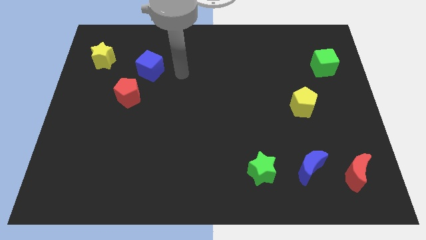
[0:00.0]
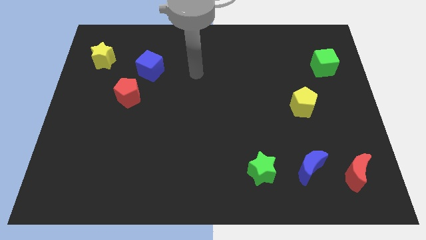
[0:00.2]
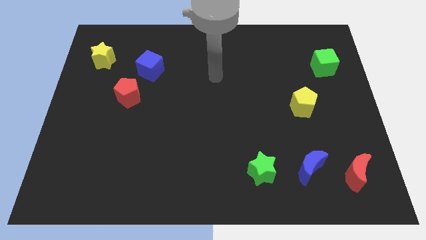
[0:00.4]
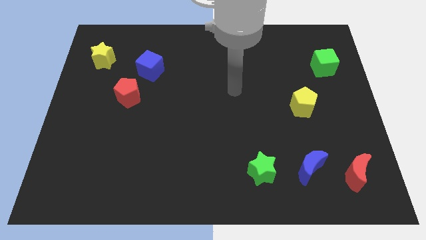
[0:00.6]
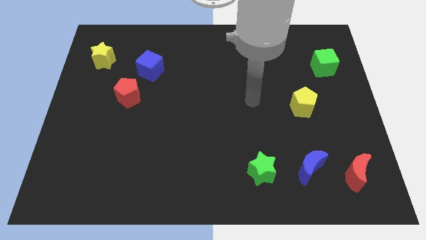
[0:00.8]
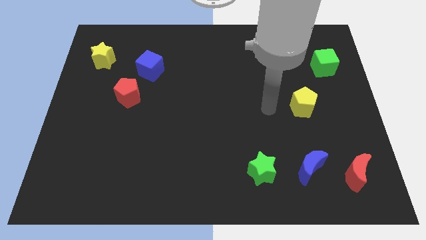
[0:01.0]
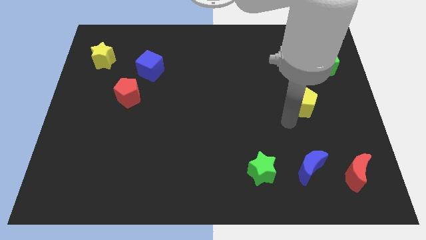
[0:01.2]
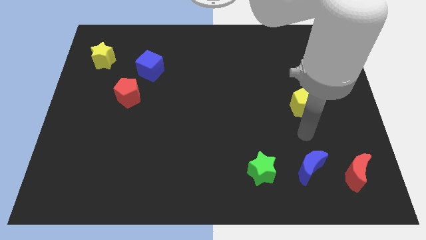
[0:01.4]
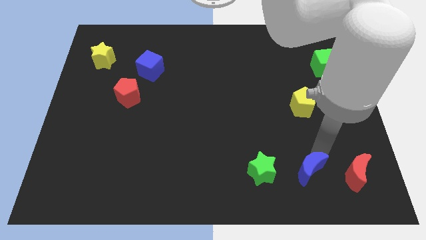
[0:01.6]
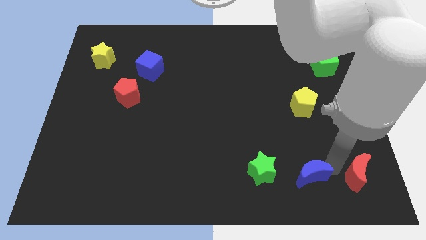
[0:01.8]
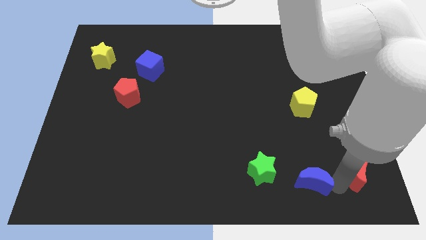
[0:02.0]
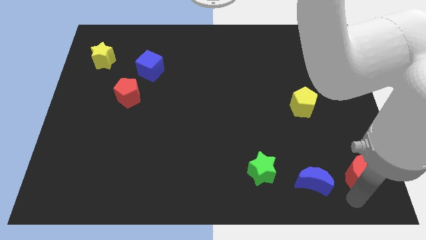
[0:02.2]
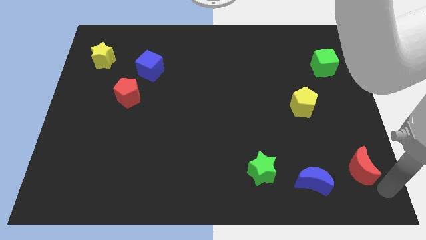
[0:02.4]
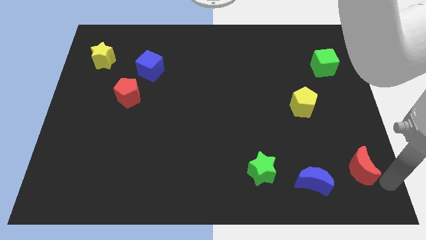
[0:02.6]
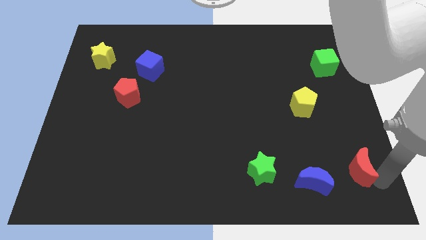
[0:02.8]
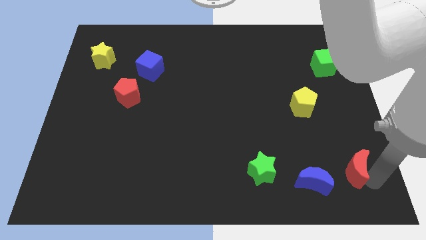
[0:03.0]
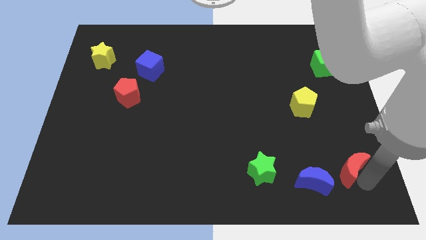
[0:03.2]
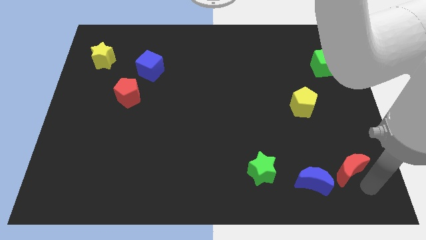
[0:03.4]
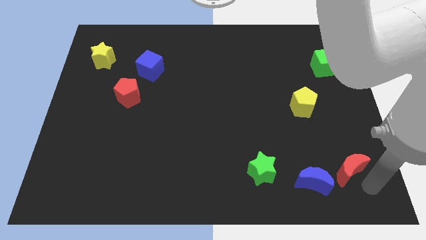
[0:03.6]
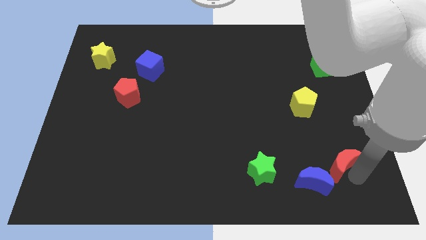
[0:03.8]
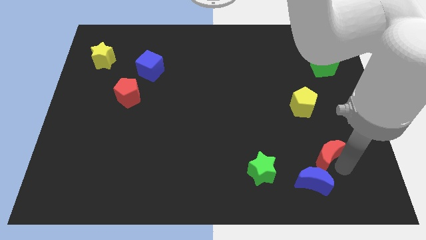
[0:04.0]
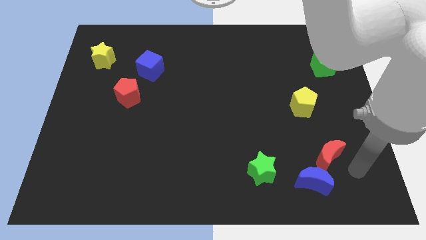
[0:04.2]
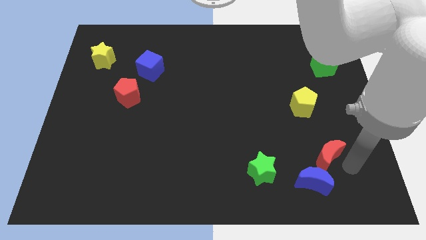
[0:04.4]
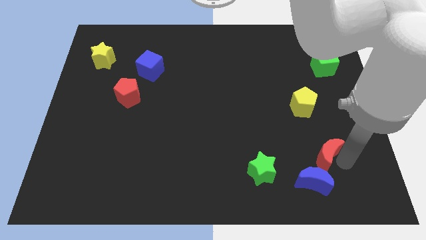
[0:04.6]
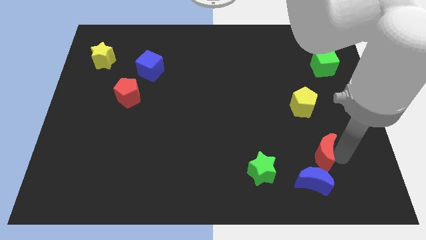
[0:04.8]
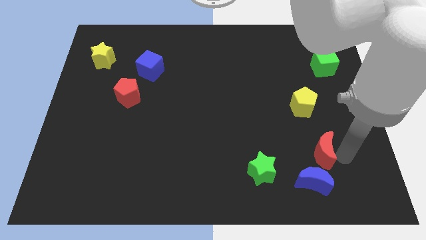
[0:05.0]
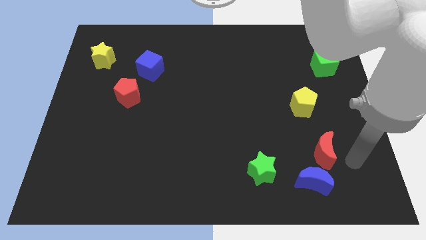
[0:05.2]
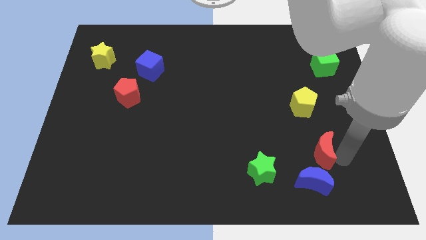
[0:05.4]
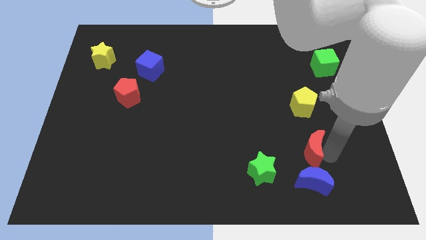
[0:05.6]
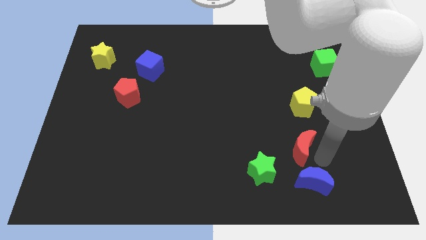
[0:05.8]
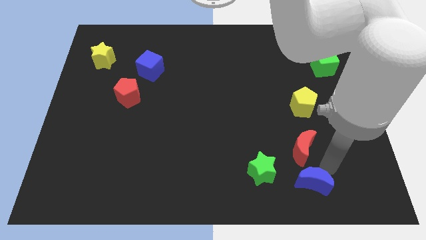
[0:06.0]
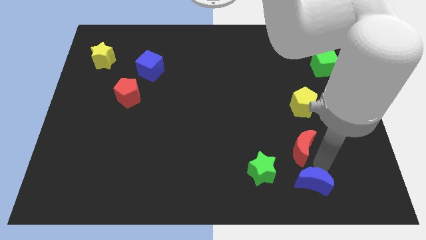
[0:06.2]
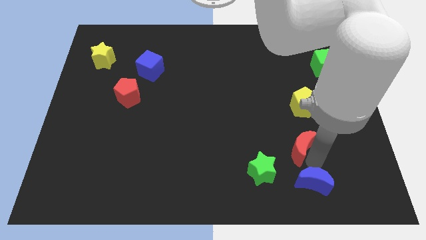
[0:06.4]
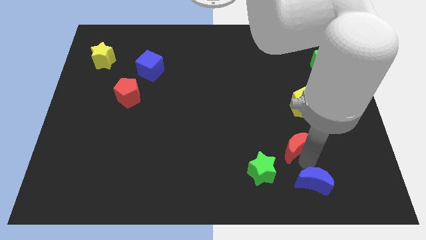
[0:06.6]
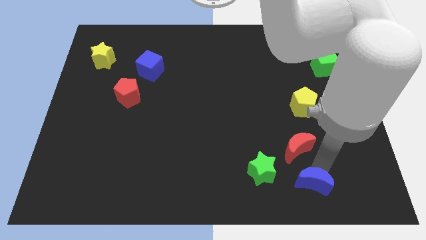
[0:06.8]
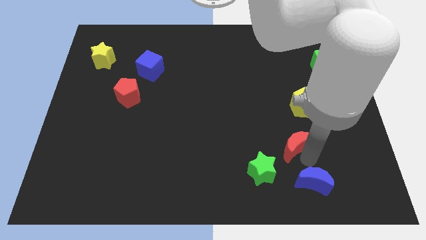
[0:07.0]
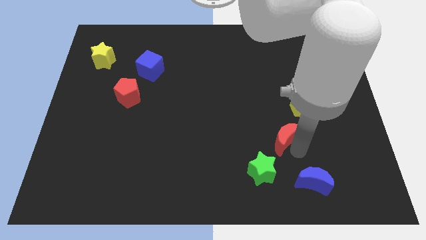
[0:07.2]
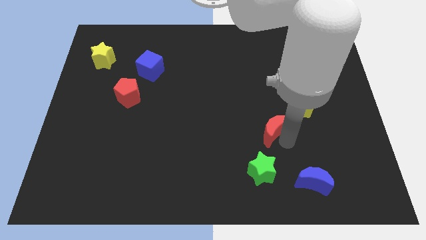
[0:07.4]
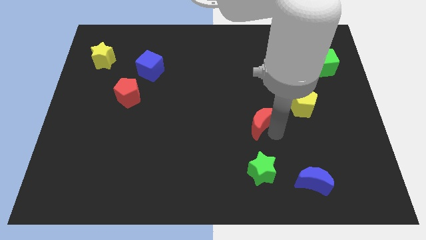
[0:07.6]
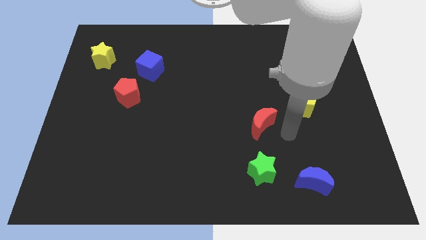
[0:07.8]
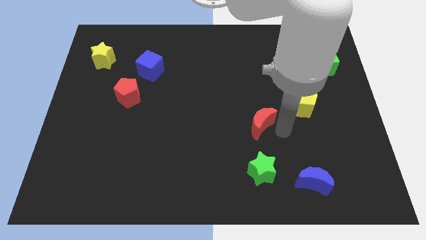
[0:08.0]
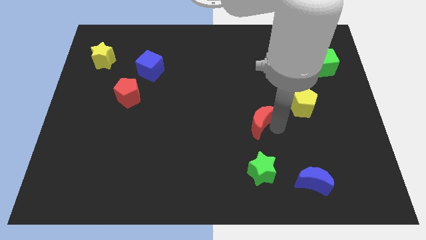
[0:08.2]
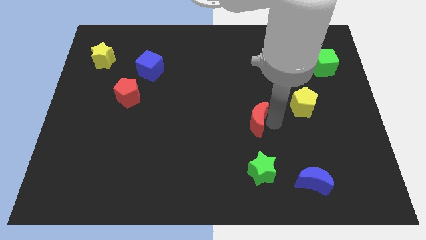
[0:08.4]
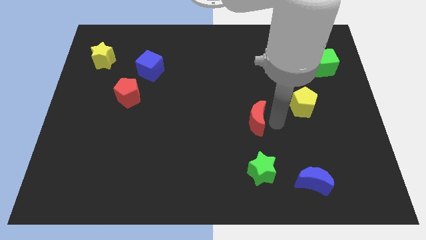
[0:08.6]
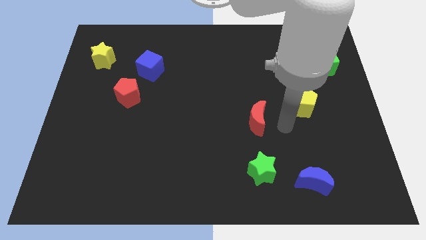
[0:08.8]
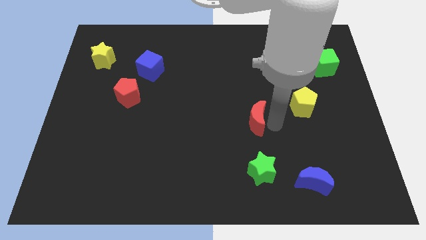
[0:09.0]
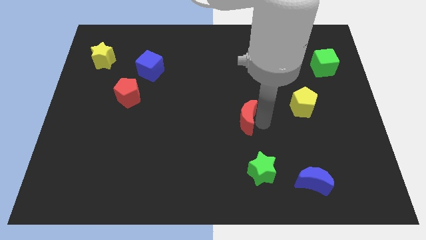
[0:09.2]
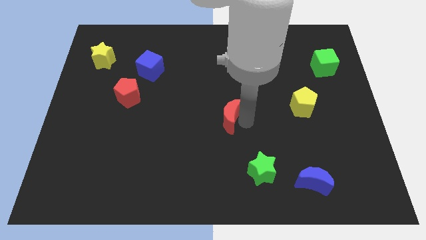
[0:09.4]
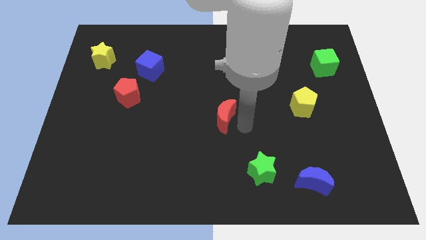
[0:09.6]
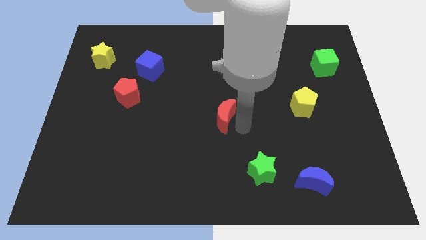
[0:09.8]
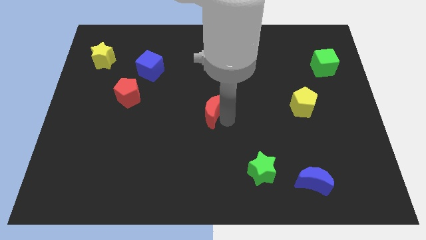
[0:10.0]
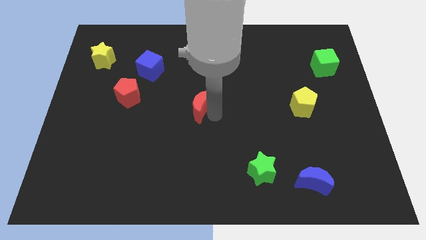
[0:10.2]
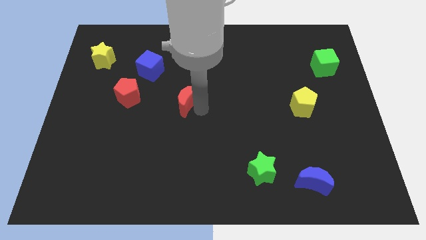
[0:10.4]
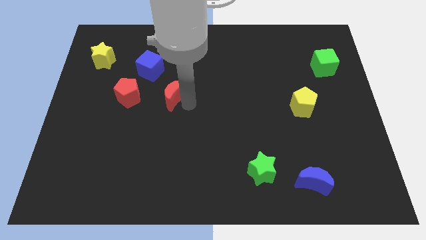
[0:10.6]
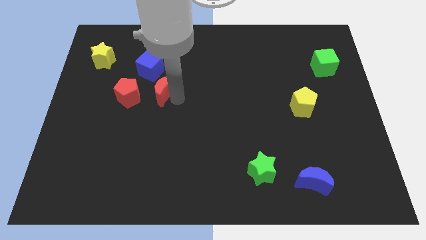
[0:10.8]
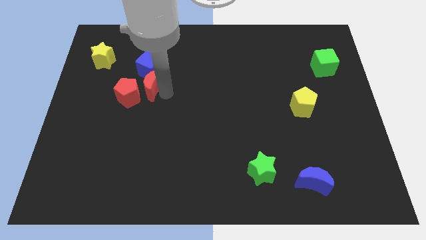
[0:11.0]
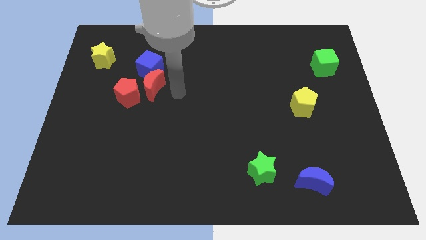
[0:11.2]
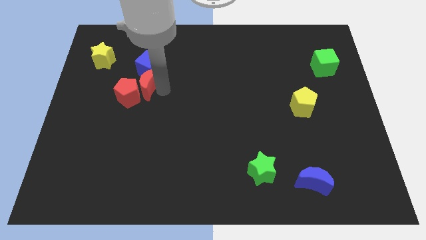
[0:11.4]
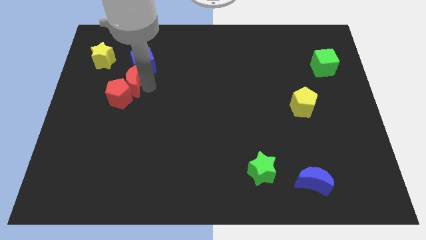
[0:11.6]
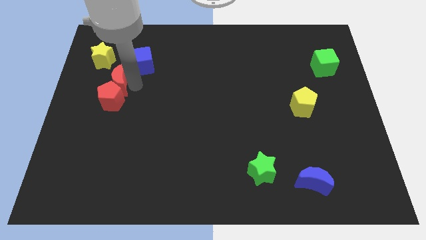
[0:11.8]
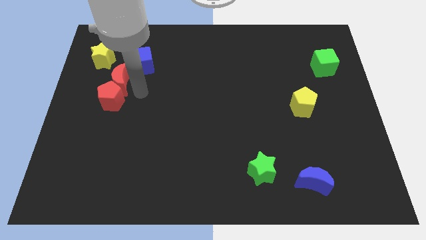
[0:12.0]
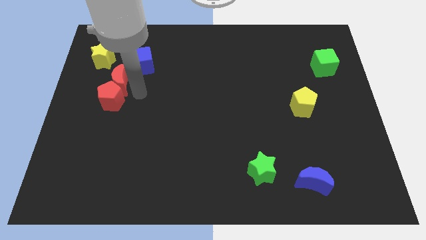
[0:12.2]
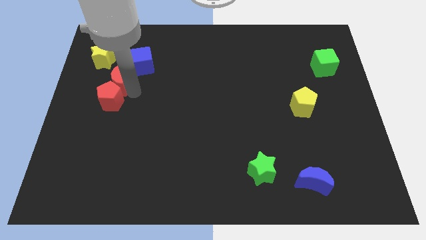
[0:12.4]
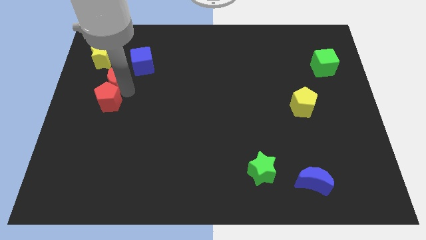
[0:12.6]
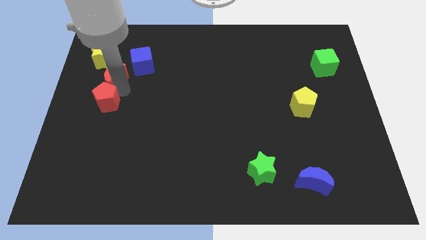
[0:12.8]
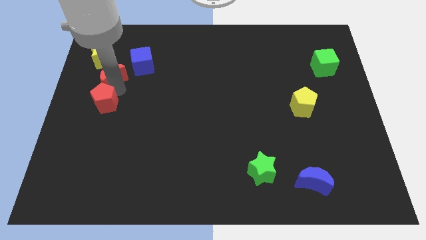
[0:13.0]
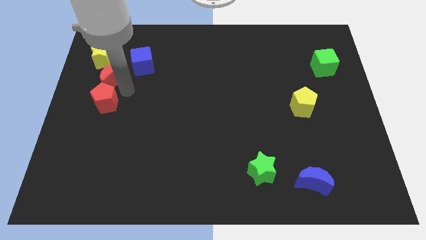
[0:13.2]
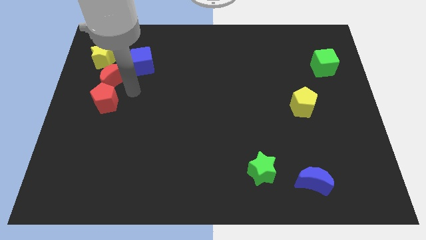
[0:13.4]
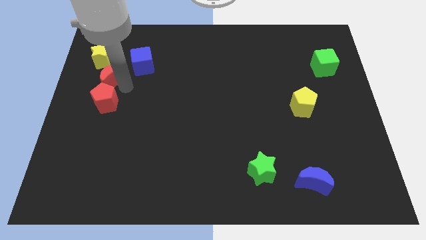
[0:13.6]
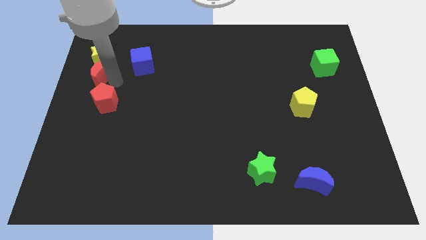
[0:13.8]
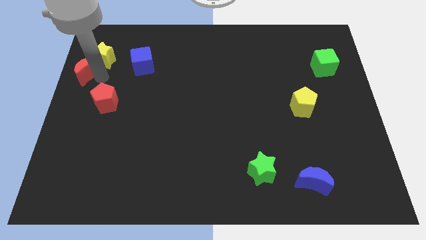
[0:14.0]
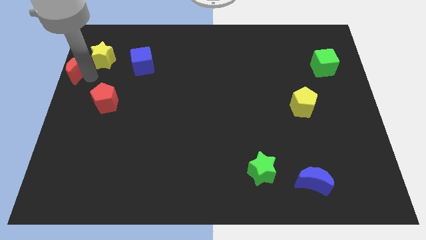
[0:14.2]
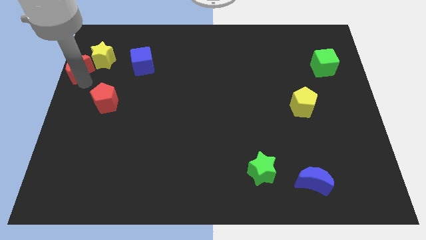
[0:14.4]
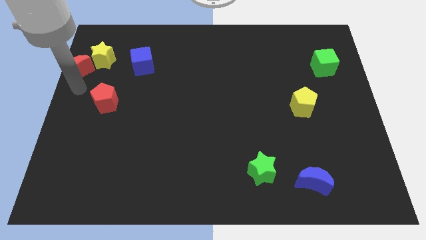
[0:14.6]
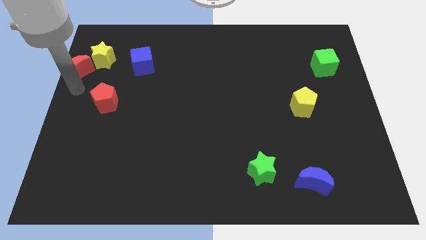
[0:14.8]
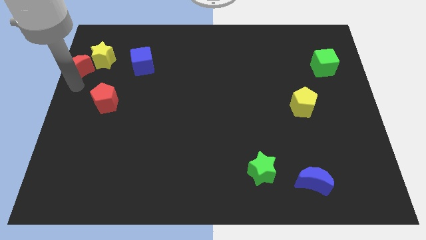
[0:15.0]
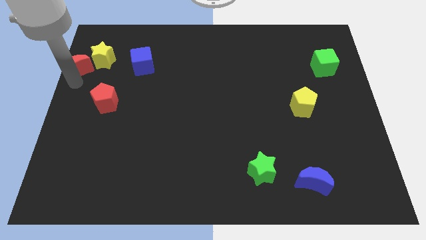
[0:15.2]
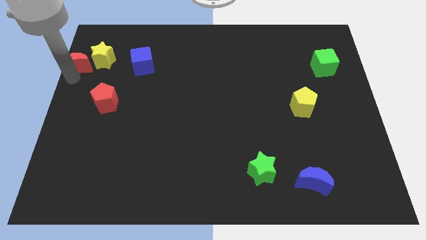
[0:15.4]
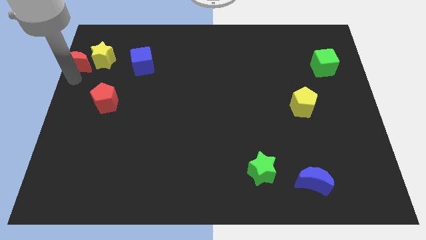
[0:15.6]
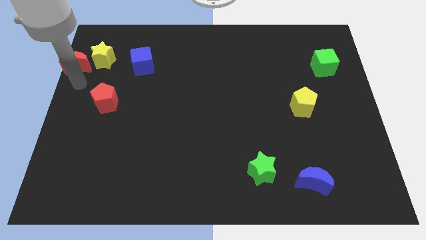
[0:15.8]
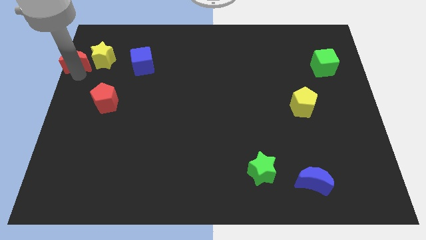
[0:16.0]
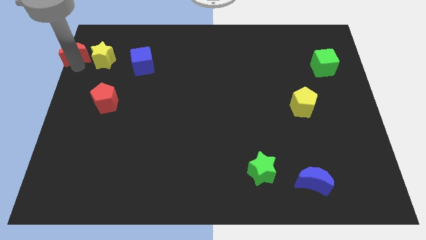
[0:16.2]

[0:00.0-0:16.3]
move the red moon to the top left
